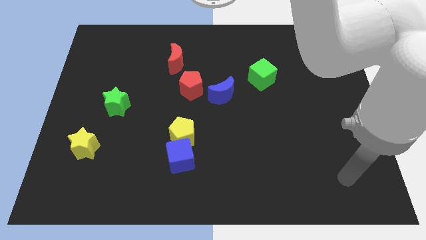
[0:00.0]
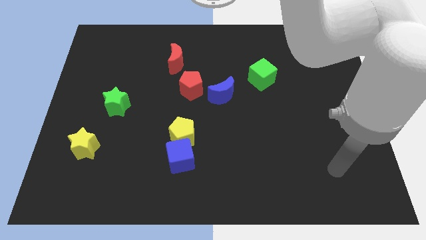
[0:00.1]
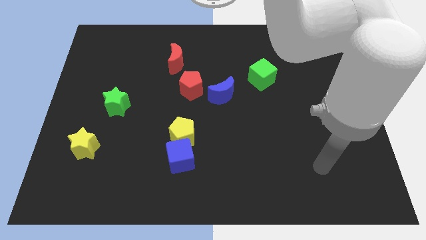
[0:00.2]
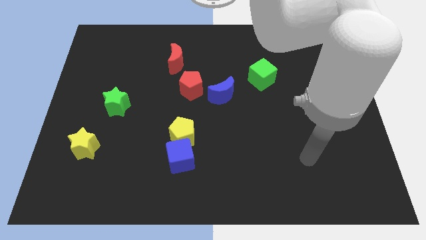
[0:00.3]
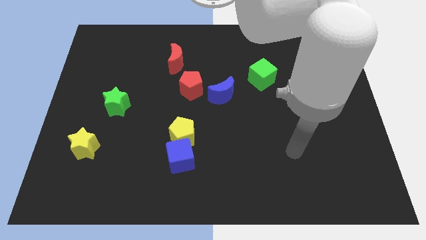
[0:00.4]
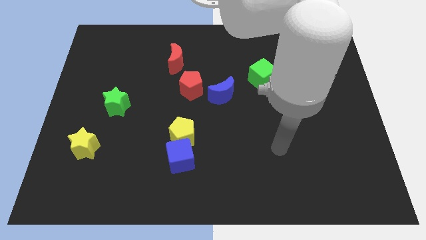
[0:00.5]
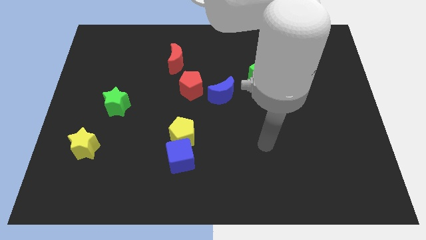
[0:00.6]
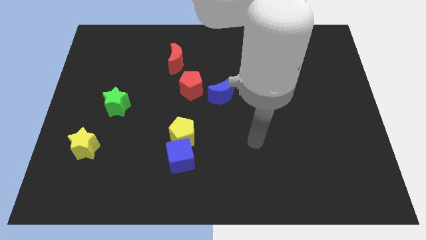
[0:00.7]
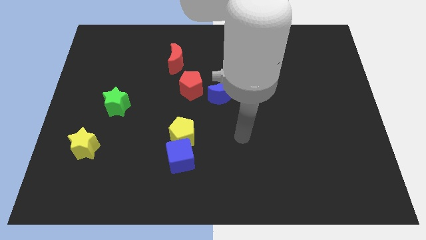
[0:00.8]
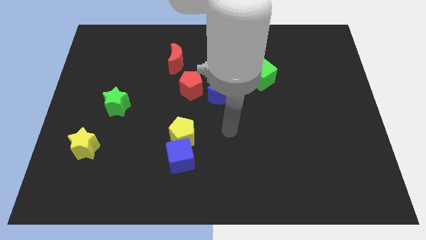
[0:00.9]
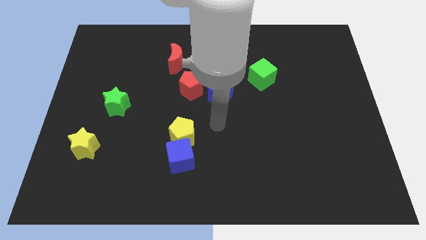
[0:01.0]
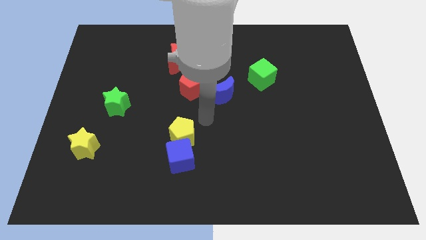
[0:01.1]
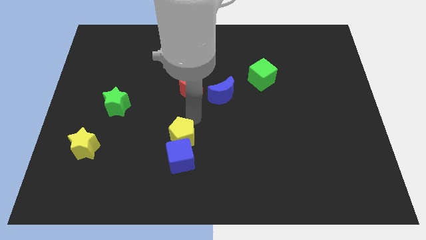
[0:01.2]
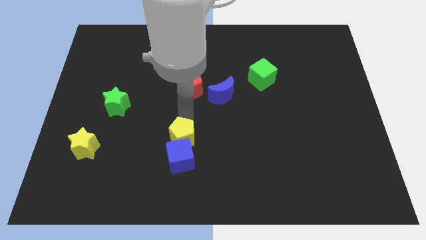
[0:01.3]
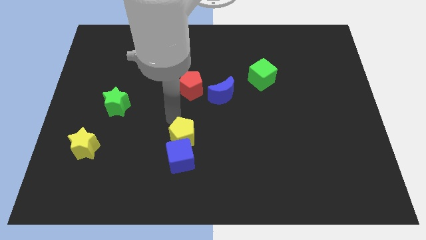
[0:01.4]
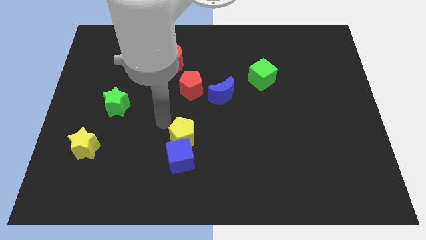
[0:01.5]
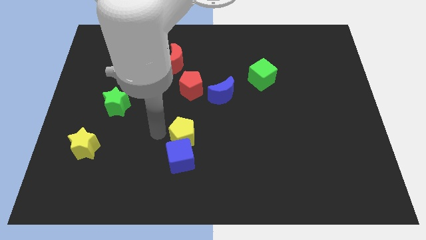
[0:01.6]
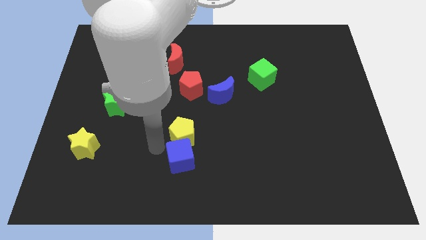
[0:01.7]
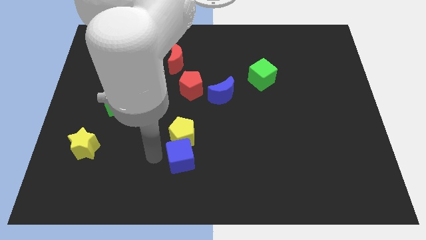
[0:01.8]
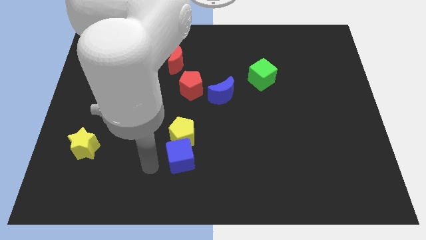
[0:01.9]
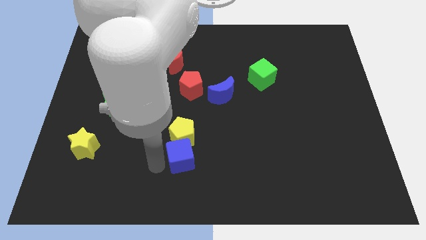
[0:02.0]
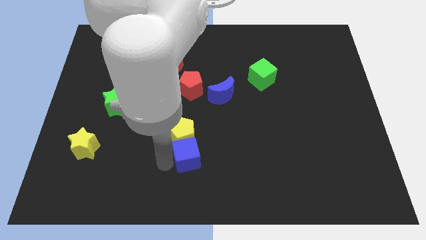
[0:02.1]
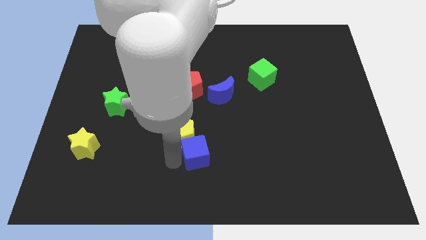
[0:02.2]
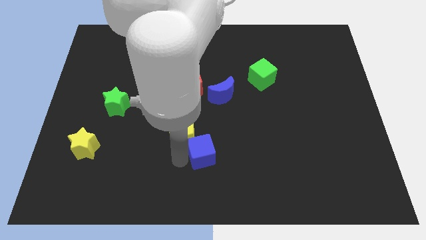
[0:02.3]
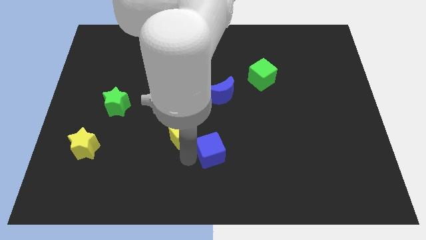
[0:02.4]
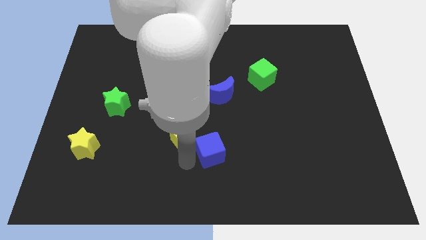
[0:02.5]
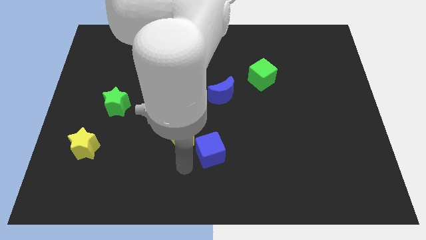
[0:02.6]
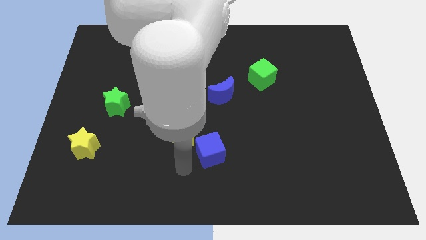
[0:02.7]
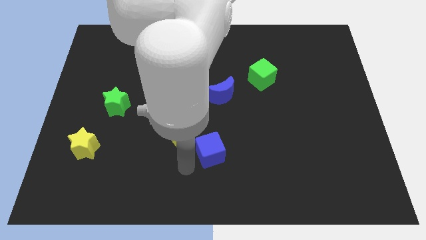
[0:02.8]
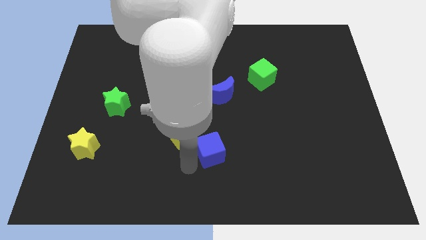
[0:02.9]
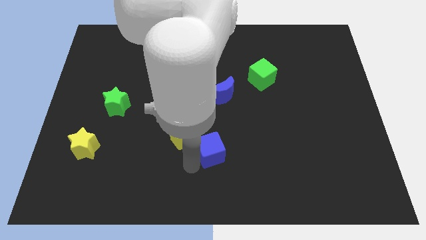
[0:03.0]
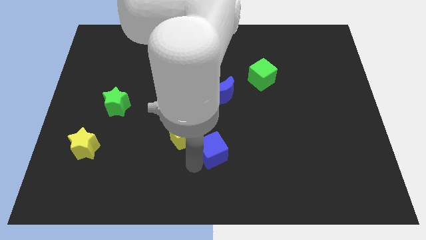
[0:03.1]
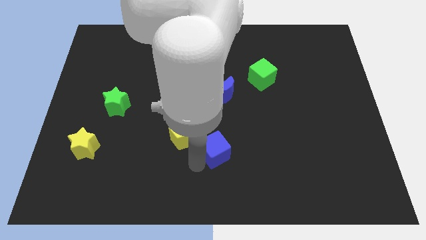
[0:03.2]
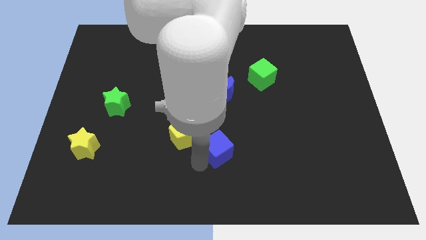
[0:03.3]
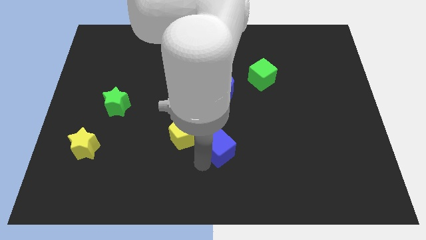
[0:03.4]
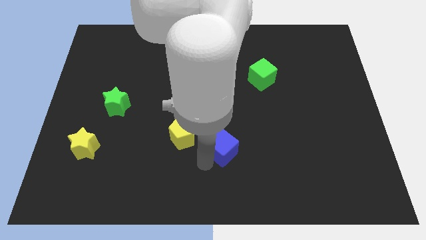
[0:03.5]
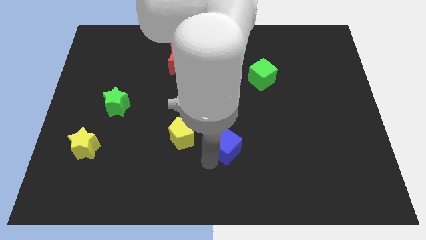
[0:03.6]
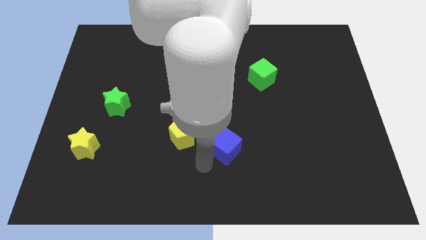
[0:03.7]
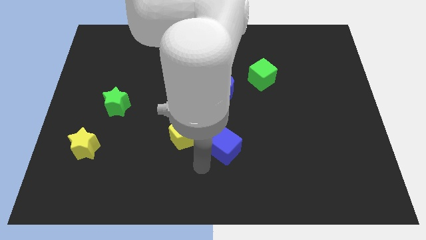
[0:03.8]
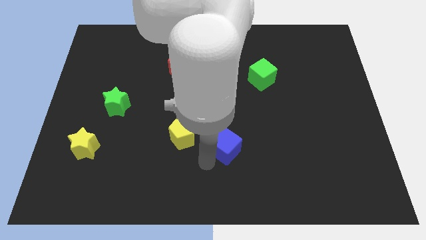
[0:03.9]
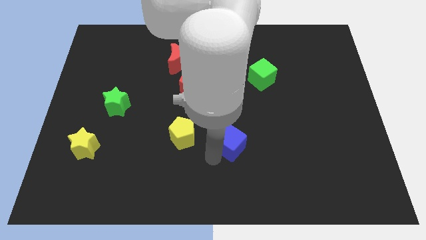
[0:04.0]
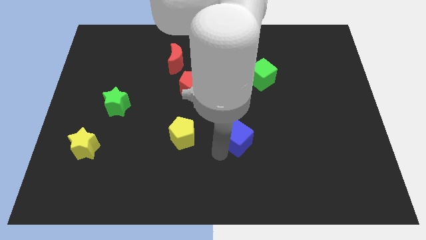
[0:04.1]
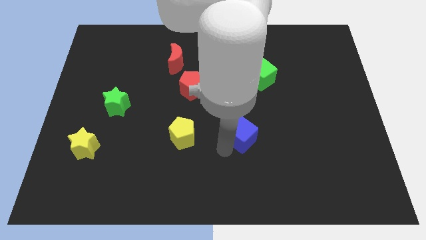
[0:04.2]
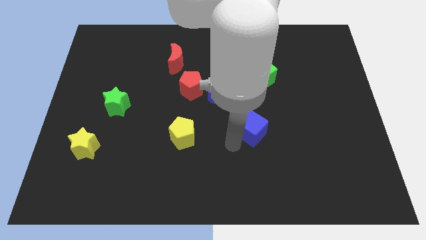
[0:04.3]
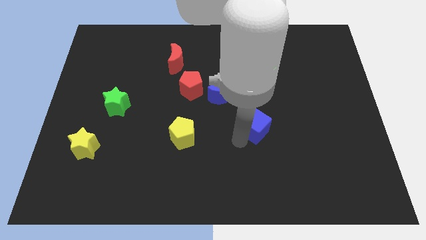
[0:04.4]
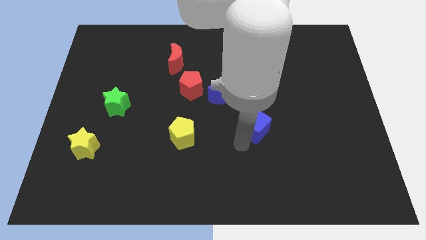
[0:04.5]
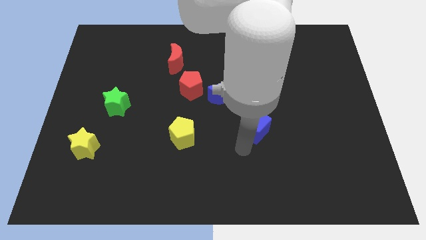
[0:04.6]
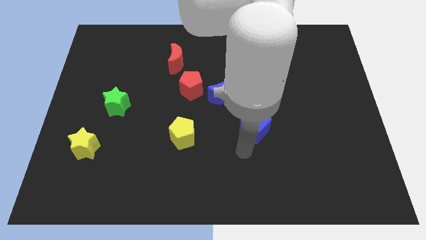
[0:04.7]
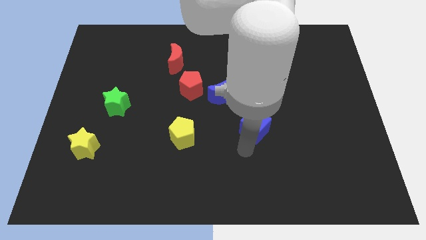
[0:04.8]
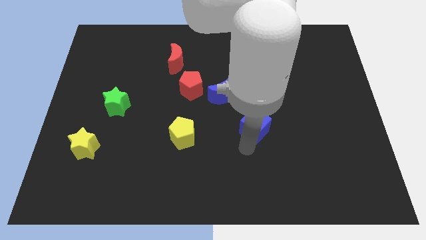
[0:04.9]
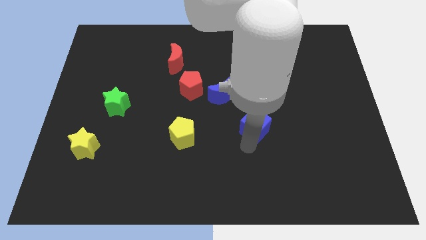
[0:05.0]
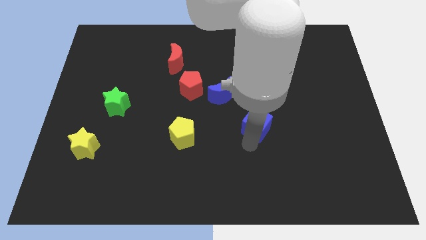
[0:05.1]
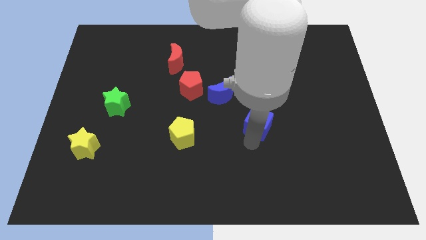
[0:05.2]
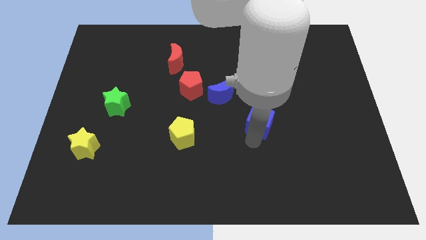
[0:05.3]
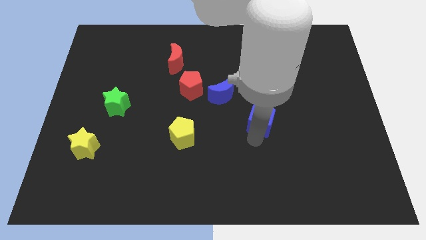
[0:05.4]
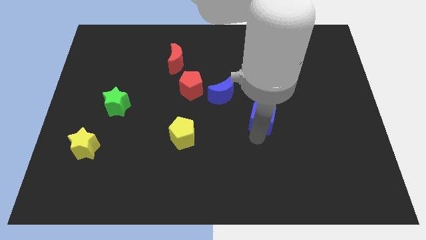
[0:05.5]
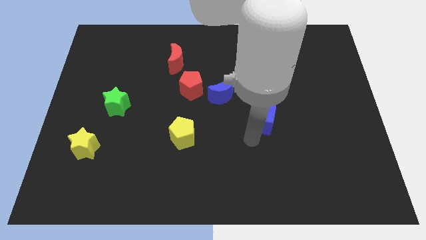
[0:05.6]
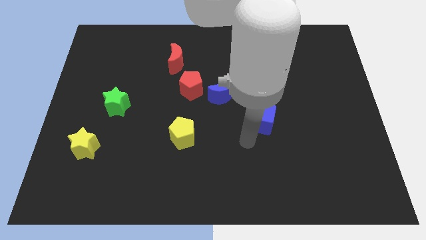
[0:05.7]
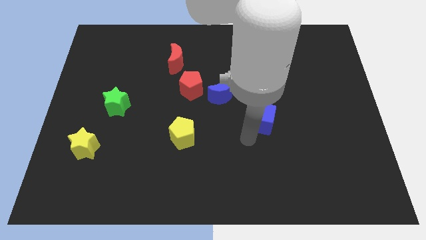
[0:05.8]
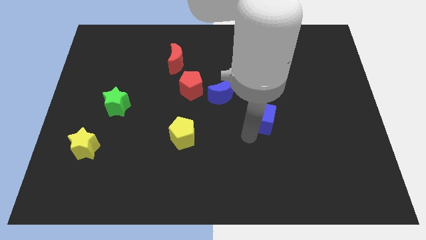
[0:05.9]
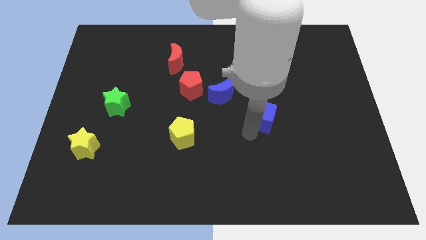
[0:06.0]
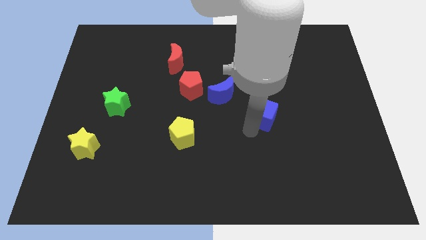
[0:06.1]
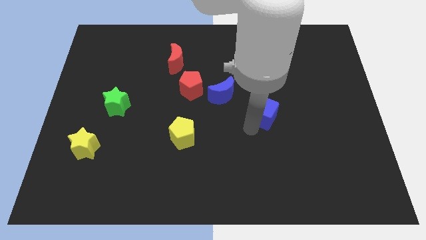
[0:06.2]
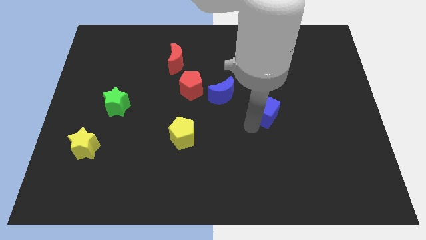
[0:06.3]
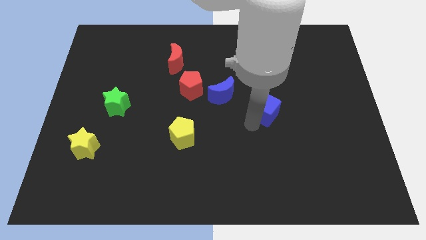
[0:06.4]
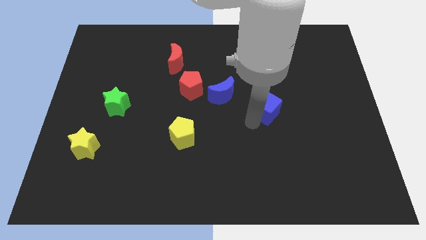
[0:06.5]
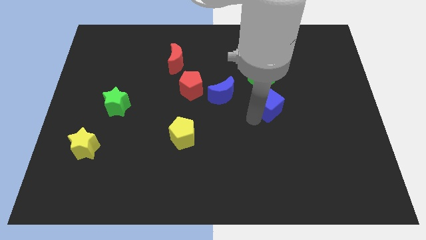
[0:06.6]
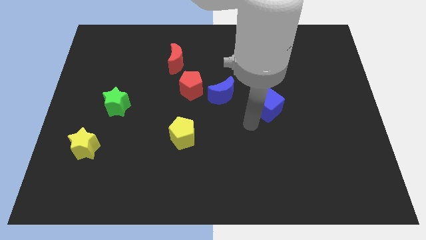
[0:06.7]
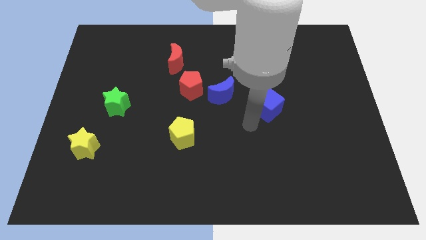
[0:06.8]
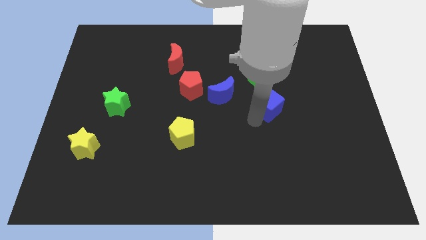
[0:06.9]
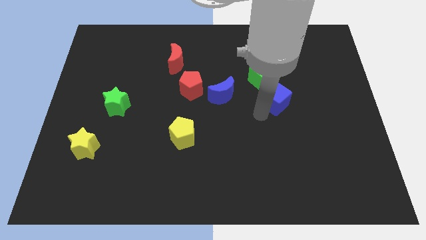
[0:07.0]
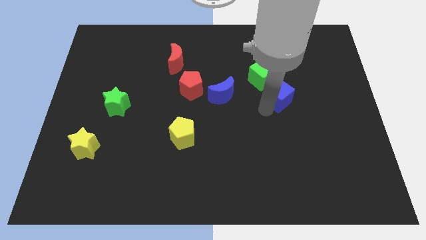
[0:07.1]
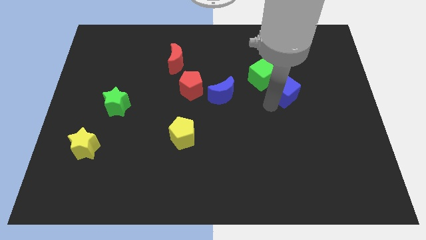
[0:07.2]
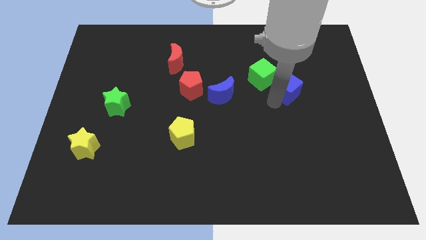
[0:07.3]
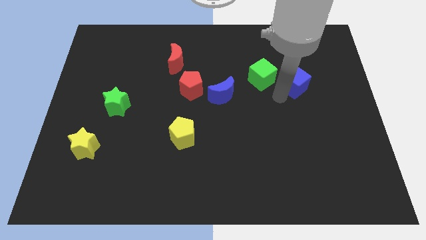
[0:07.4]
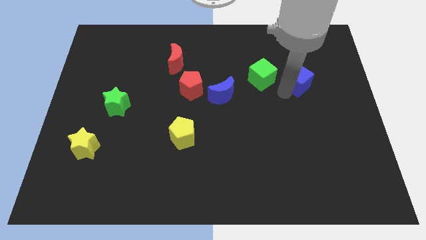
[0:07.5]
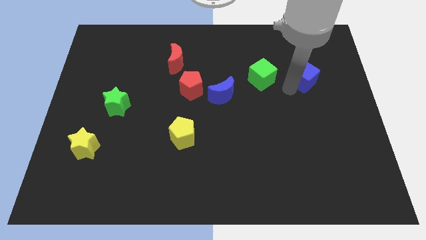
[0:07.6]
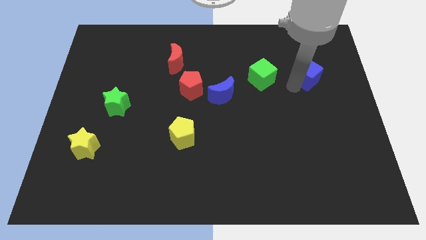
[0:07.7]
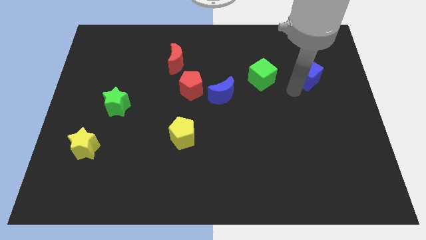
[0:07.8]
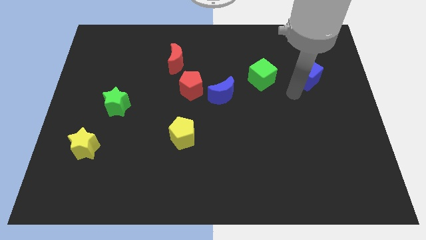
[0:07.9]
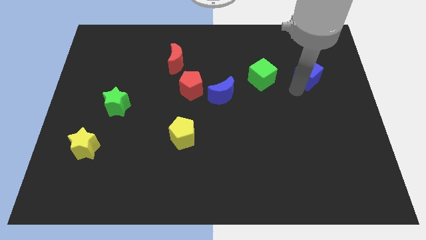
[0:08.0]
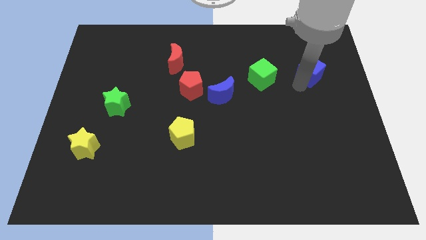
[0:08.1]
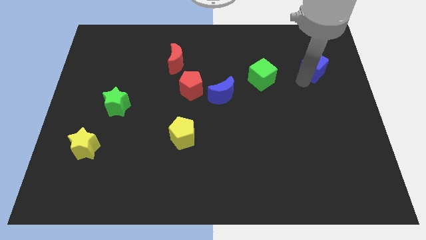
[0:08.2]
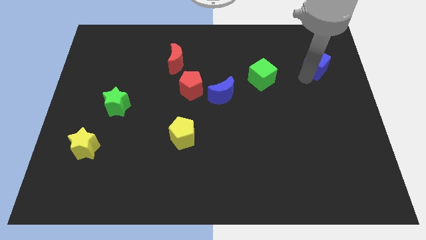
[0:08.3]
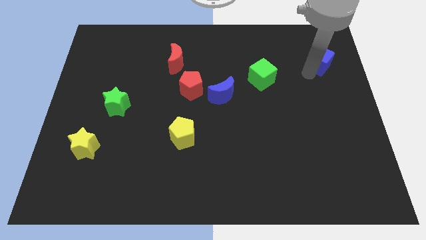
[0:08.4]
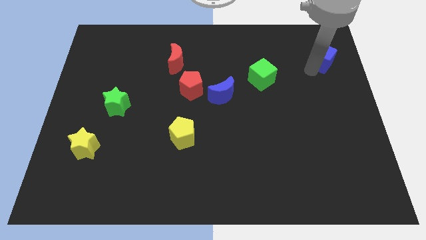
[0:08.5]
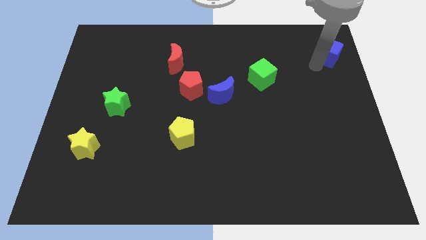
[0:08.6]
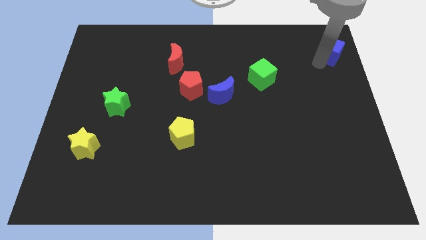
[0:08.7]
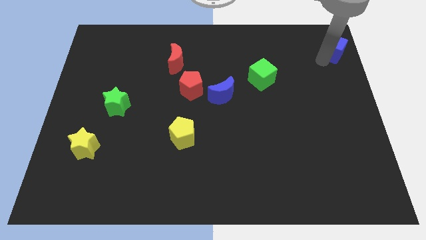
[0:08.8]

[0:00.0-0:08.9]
slide the blue cube to the top right of the board
